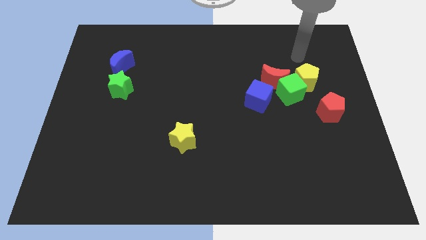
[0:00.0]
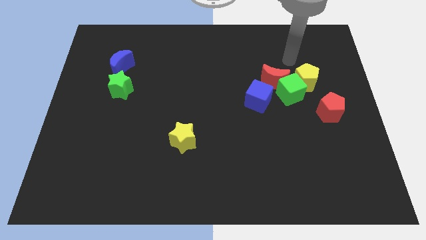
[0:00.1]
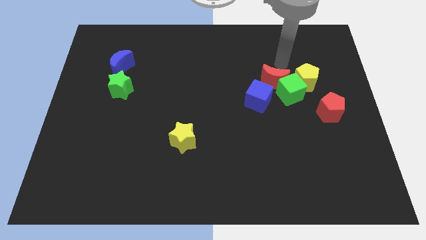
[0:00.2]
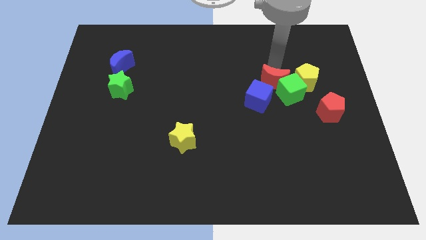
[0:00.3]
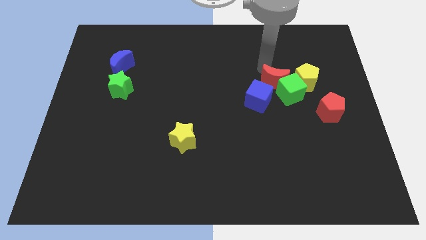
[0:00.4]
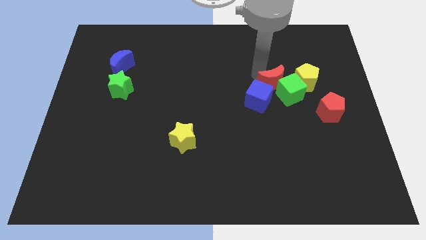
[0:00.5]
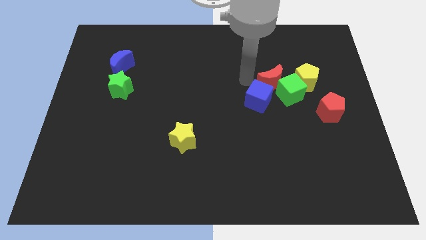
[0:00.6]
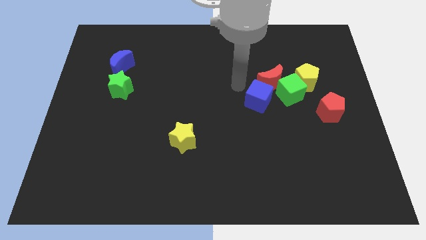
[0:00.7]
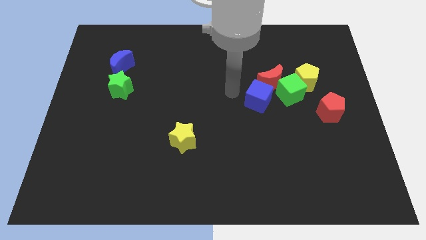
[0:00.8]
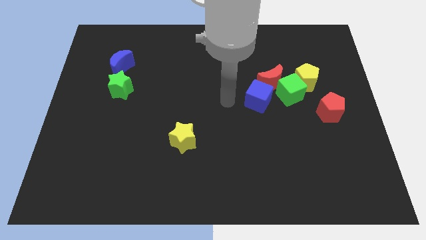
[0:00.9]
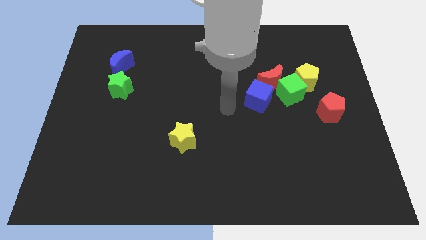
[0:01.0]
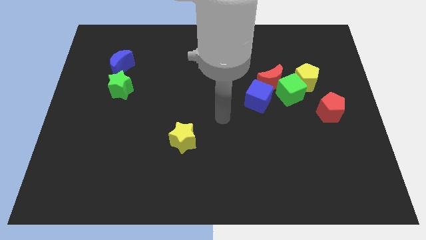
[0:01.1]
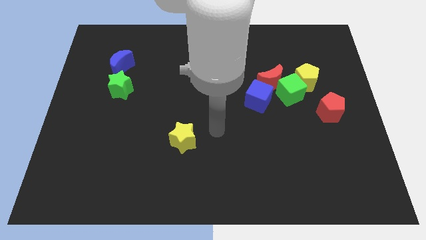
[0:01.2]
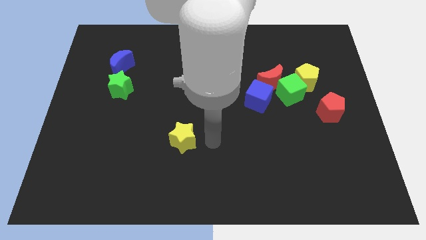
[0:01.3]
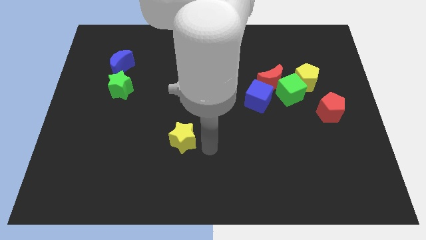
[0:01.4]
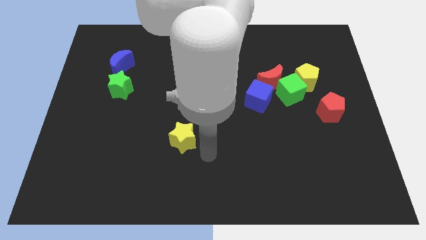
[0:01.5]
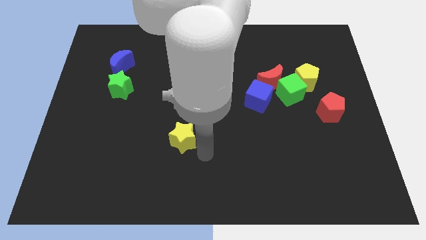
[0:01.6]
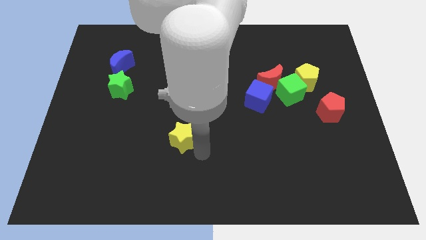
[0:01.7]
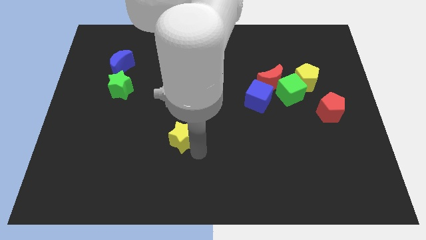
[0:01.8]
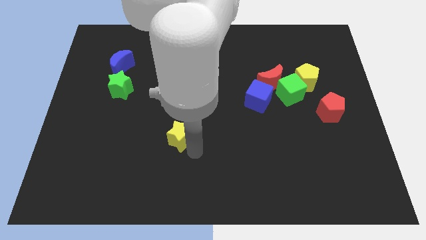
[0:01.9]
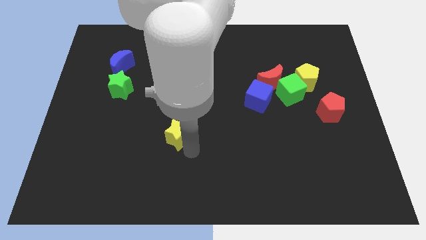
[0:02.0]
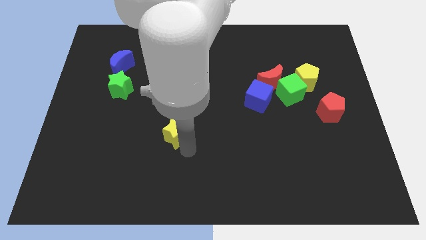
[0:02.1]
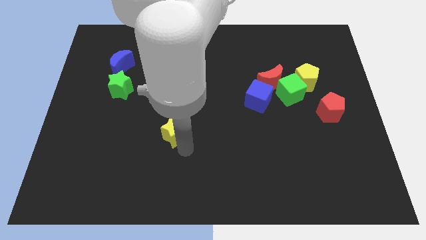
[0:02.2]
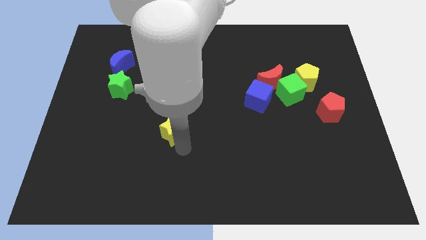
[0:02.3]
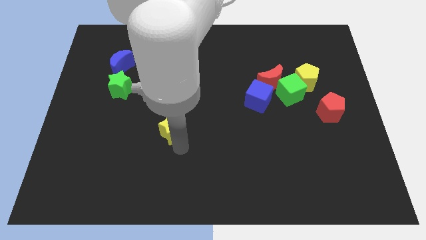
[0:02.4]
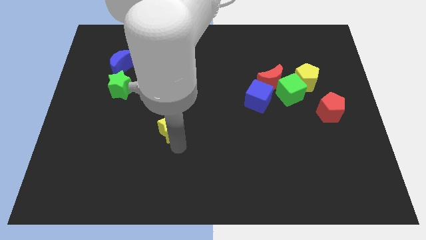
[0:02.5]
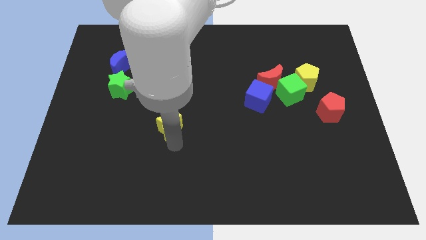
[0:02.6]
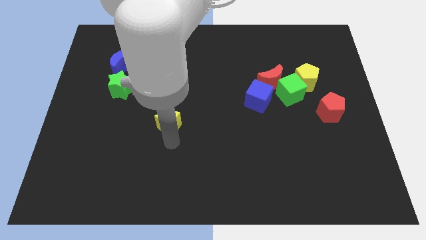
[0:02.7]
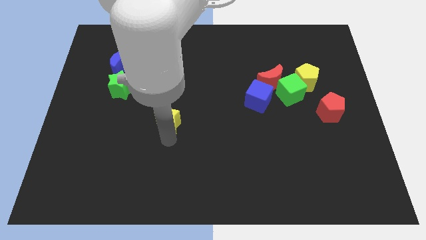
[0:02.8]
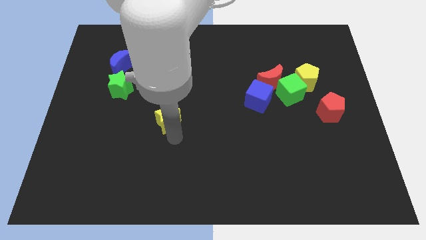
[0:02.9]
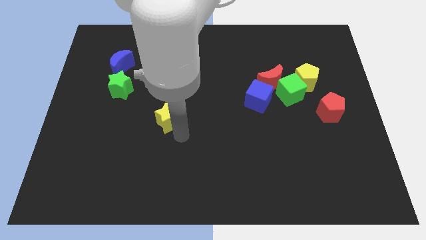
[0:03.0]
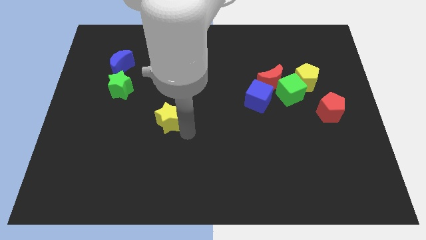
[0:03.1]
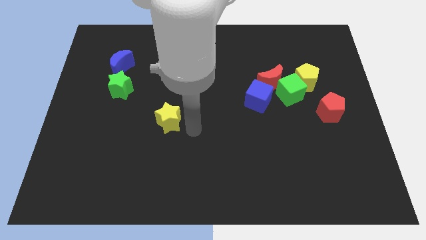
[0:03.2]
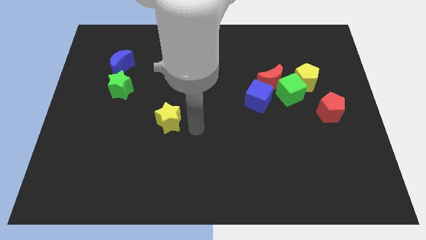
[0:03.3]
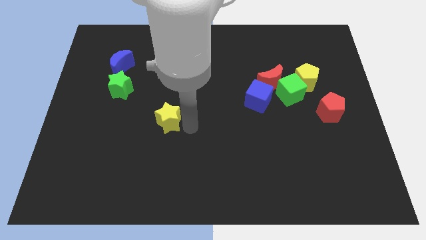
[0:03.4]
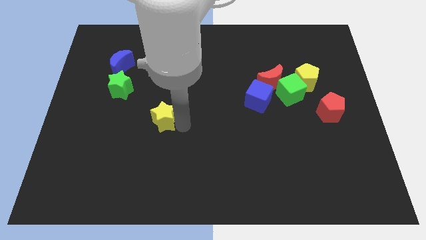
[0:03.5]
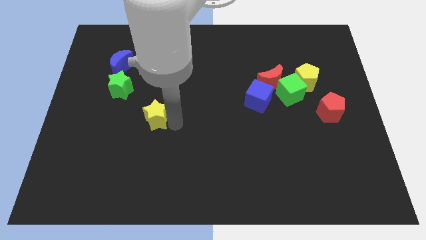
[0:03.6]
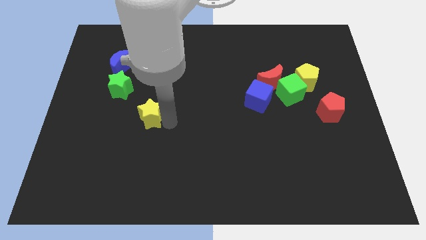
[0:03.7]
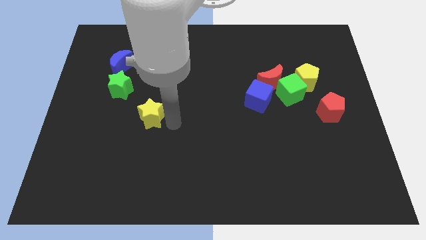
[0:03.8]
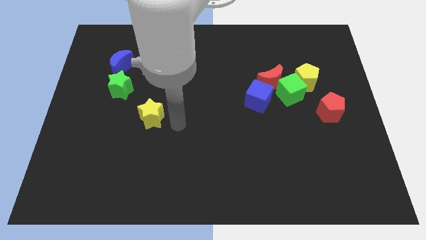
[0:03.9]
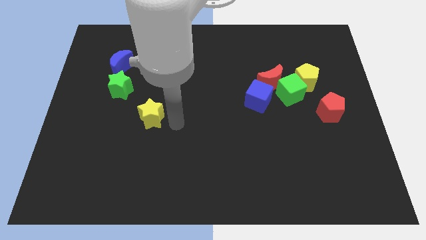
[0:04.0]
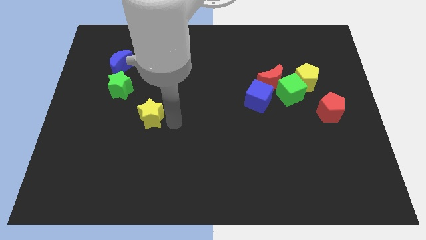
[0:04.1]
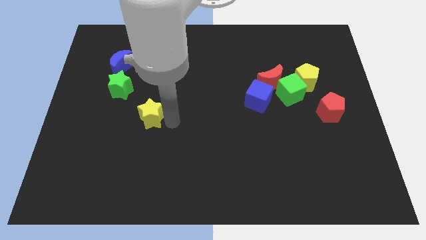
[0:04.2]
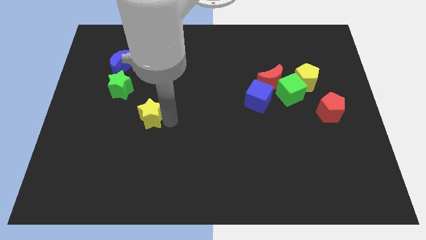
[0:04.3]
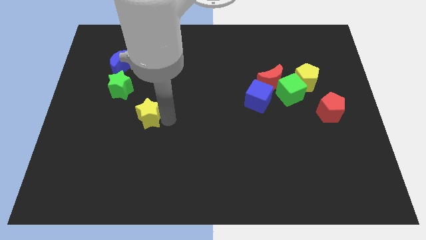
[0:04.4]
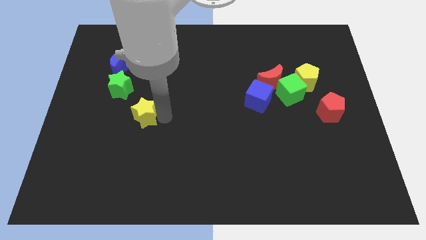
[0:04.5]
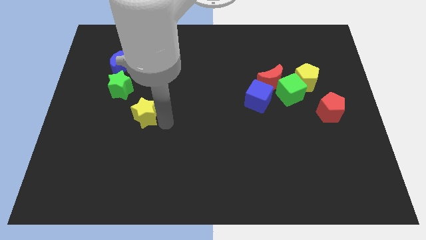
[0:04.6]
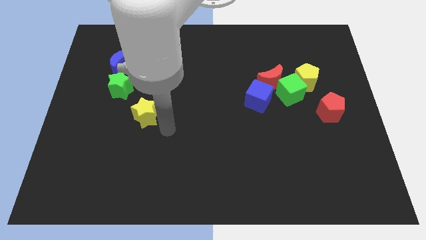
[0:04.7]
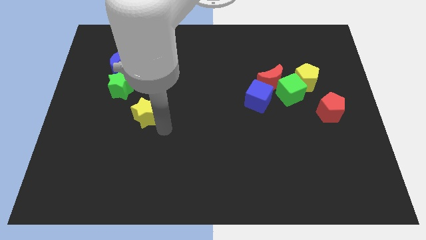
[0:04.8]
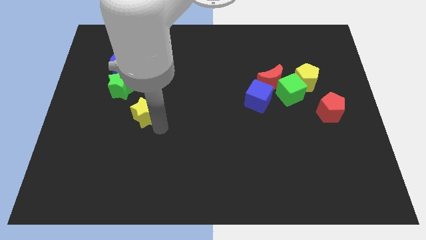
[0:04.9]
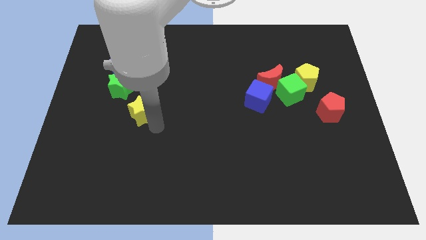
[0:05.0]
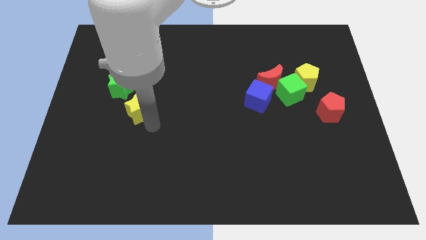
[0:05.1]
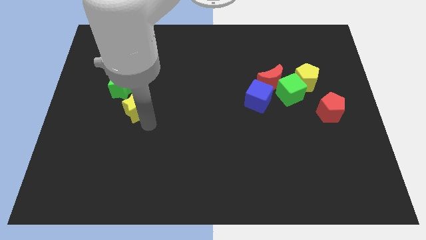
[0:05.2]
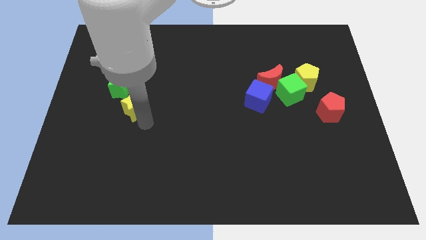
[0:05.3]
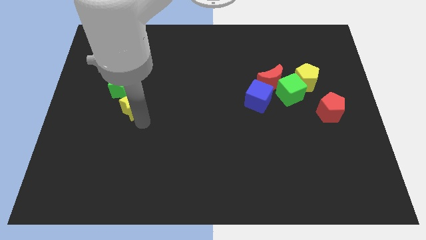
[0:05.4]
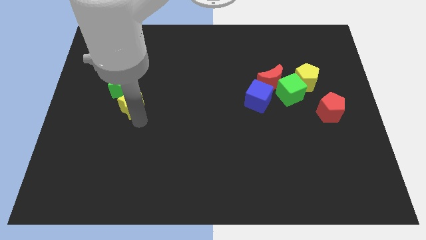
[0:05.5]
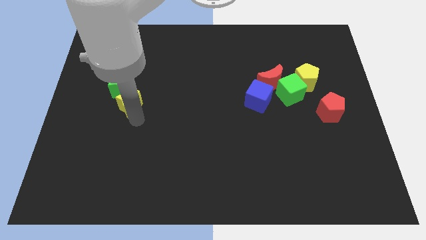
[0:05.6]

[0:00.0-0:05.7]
move the yellow star to the bottom of the blue moon

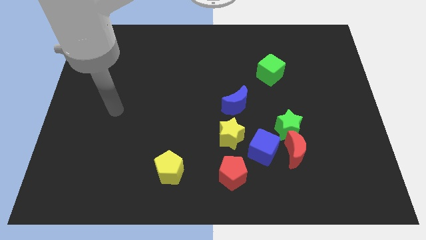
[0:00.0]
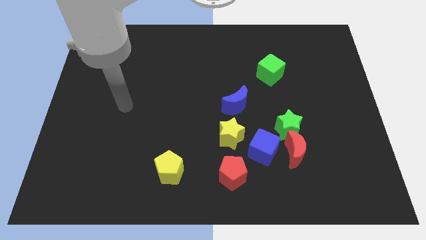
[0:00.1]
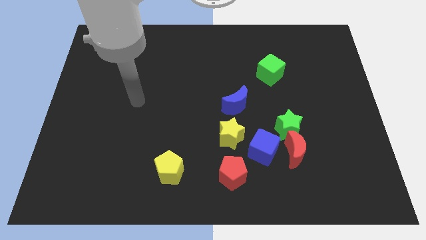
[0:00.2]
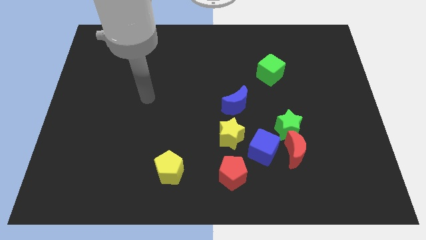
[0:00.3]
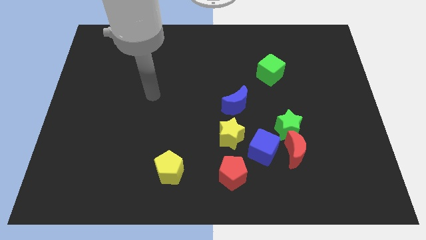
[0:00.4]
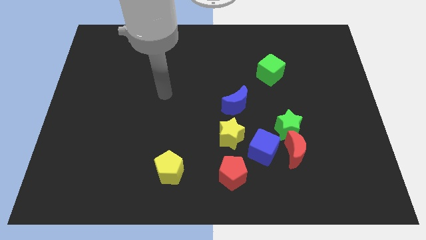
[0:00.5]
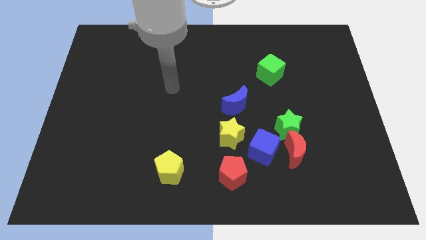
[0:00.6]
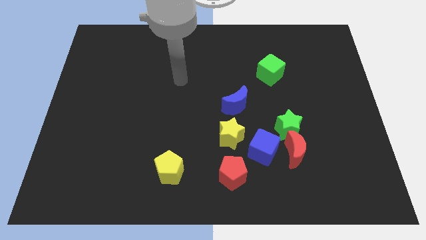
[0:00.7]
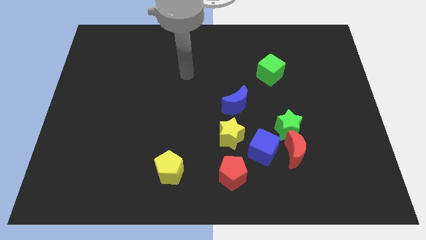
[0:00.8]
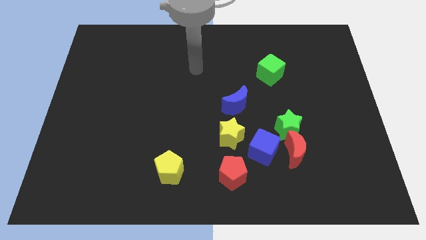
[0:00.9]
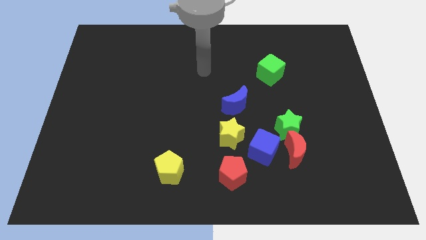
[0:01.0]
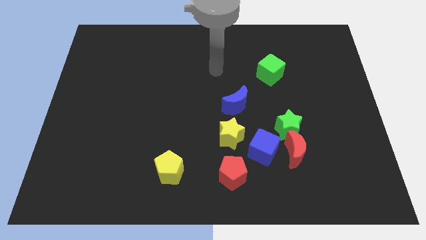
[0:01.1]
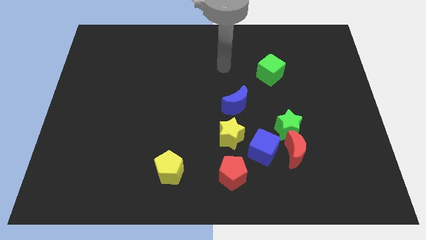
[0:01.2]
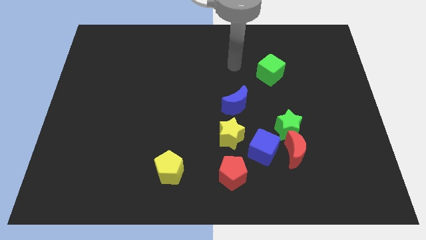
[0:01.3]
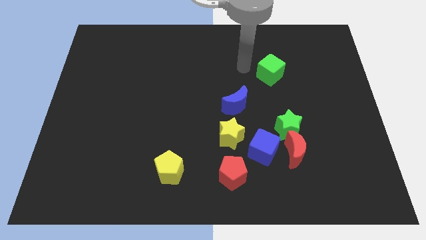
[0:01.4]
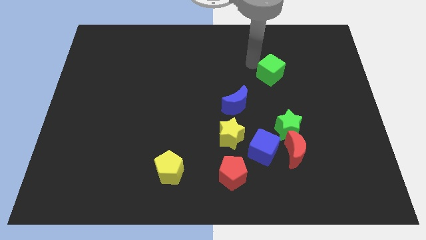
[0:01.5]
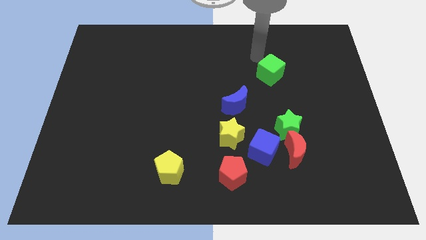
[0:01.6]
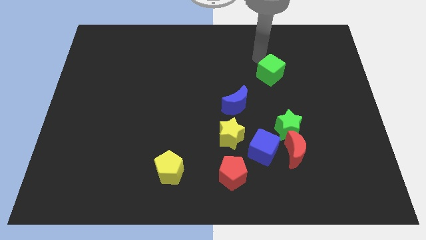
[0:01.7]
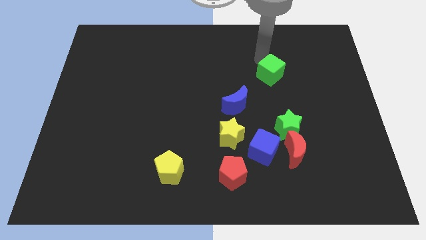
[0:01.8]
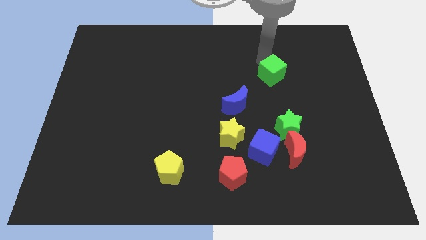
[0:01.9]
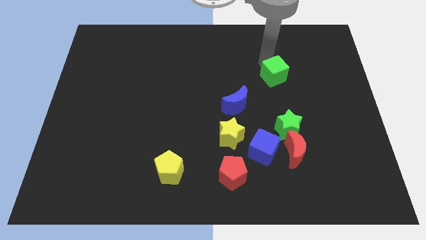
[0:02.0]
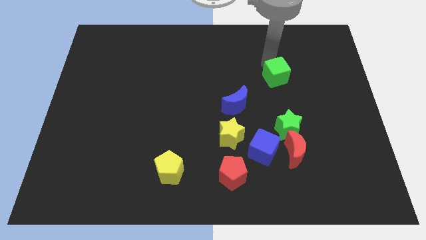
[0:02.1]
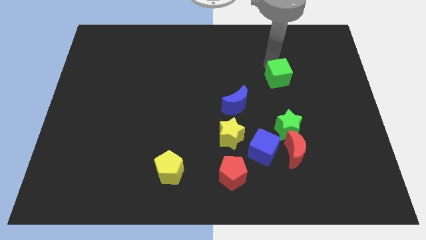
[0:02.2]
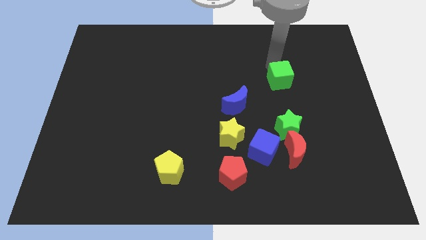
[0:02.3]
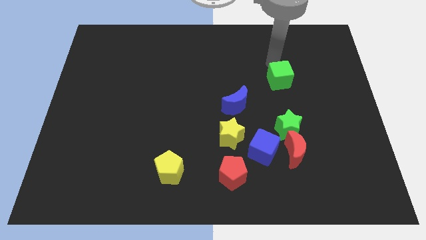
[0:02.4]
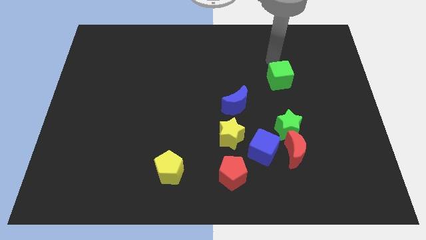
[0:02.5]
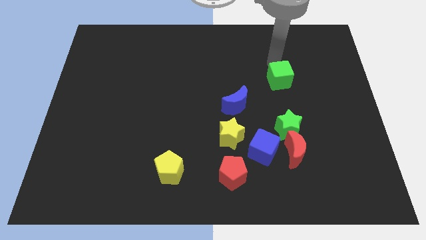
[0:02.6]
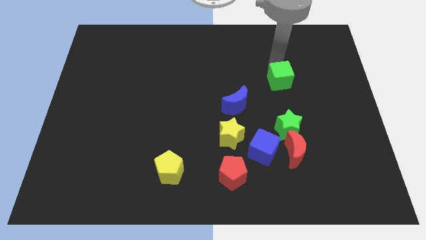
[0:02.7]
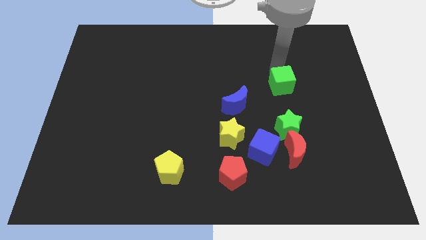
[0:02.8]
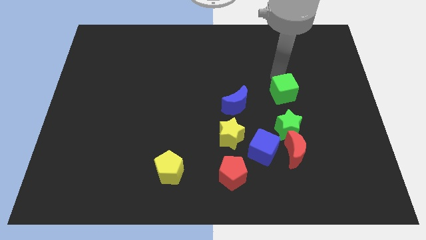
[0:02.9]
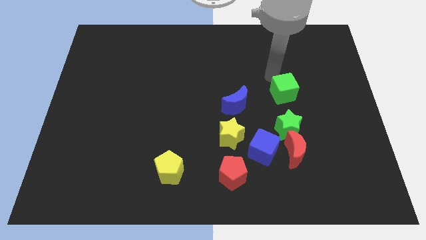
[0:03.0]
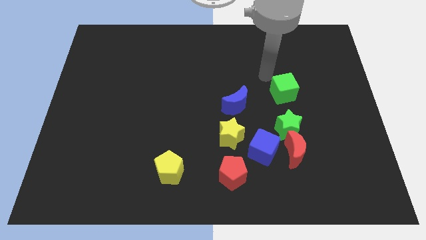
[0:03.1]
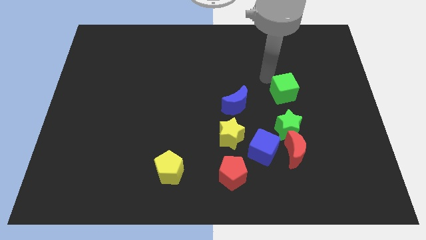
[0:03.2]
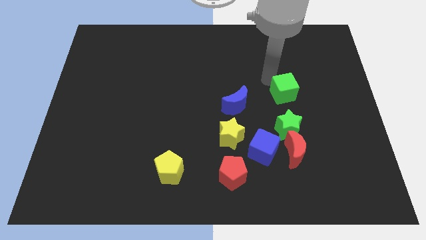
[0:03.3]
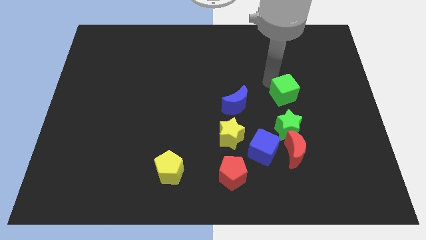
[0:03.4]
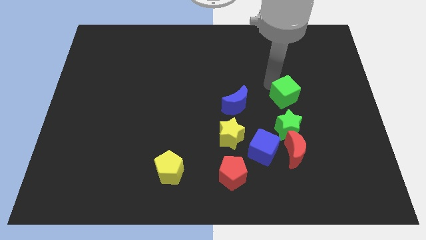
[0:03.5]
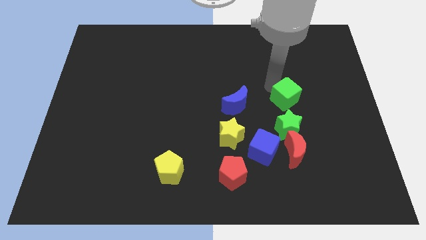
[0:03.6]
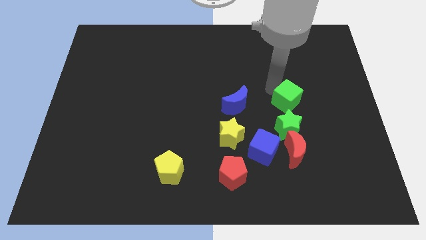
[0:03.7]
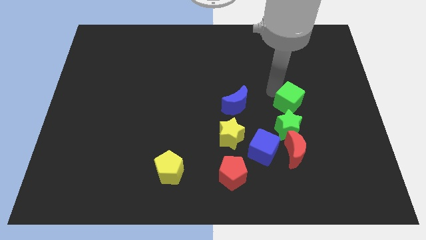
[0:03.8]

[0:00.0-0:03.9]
put the green cube to the top right of the green star
